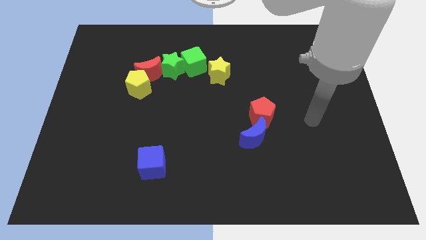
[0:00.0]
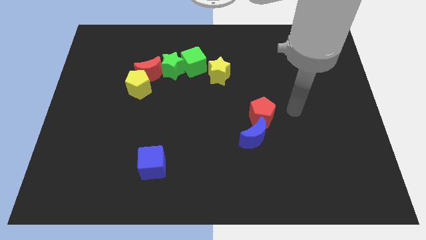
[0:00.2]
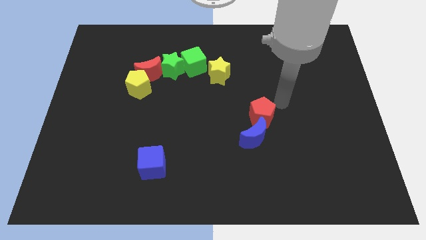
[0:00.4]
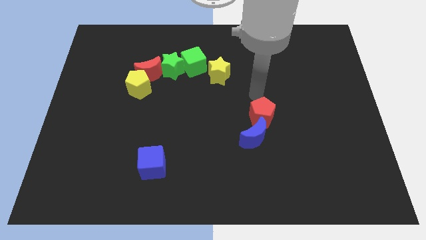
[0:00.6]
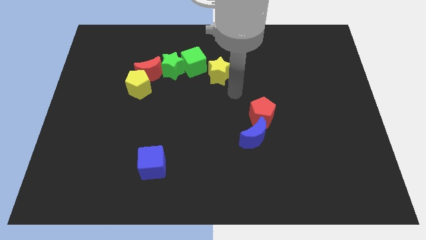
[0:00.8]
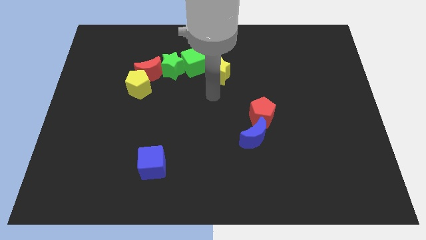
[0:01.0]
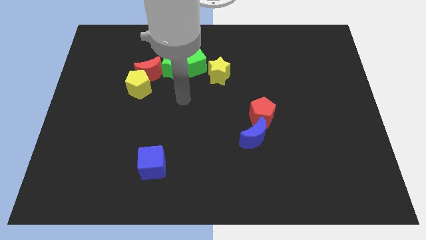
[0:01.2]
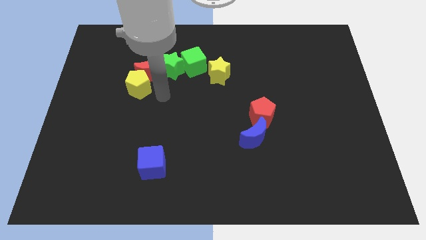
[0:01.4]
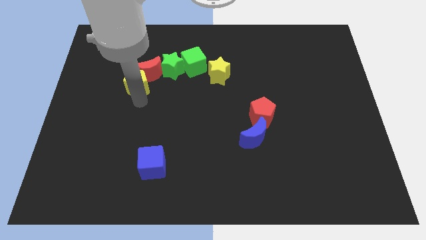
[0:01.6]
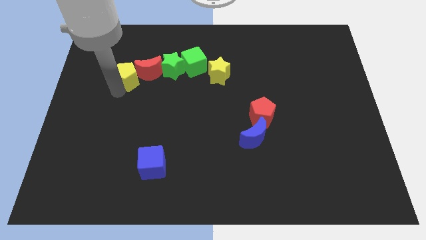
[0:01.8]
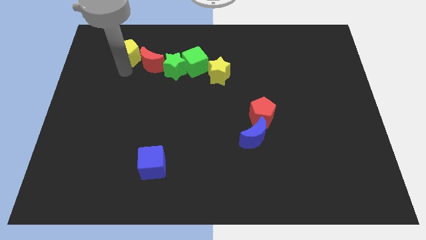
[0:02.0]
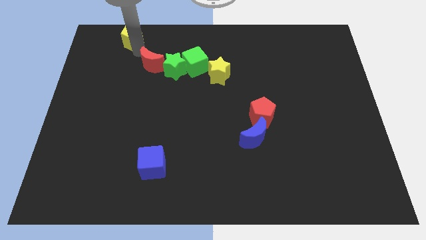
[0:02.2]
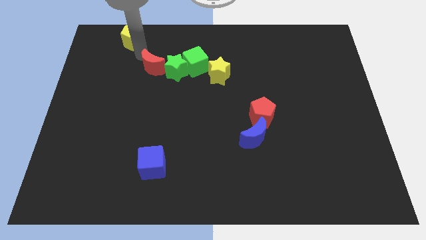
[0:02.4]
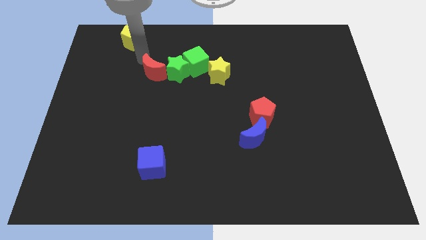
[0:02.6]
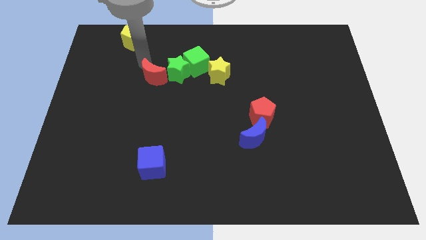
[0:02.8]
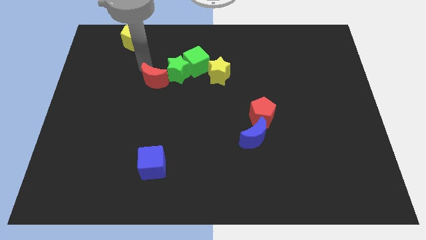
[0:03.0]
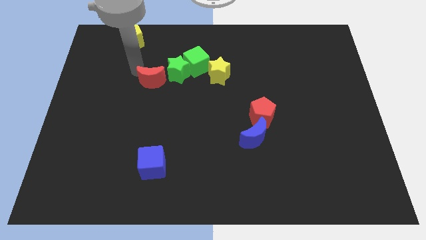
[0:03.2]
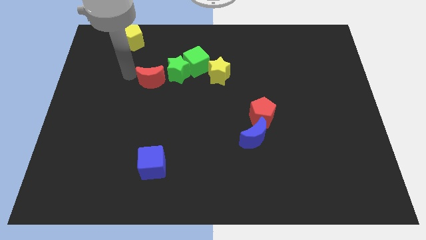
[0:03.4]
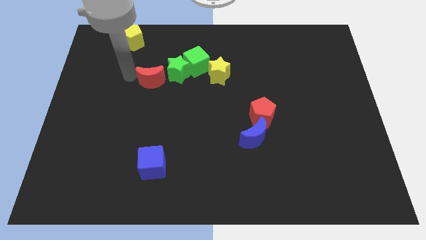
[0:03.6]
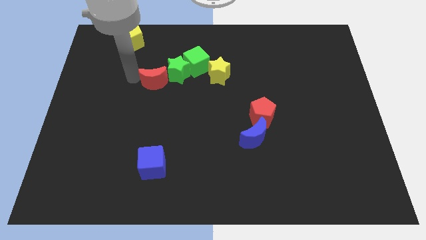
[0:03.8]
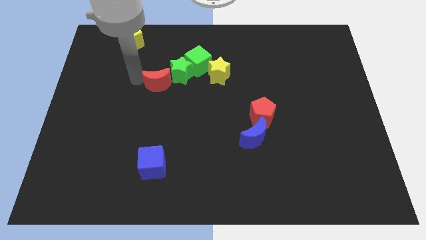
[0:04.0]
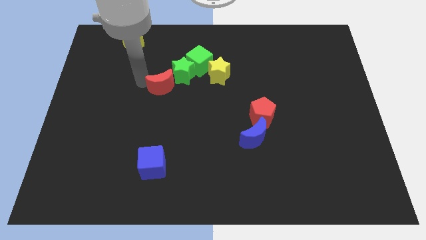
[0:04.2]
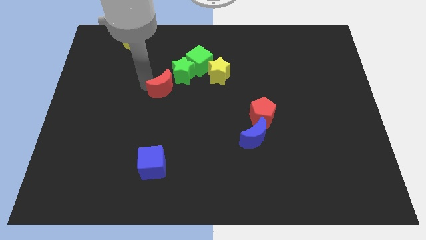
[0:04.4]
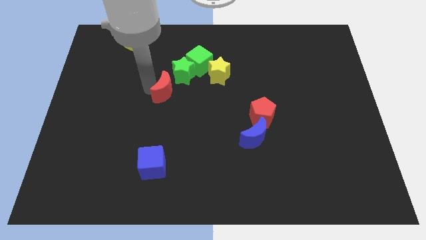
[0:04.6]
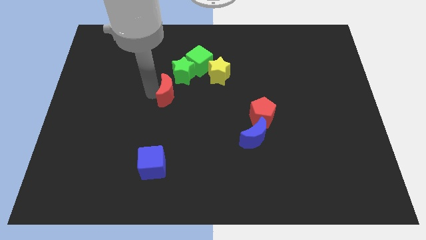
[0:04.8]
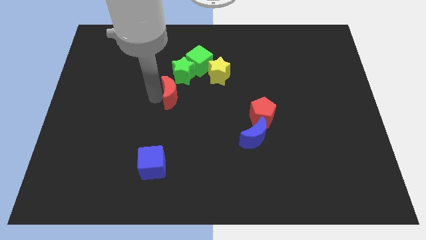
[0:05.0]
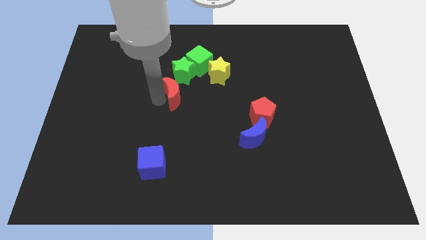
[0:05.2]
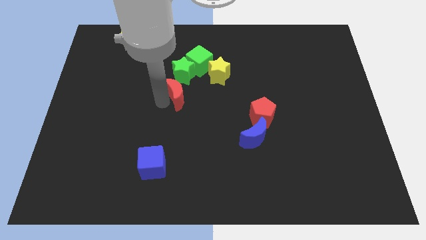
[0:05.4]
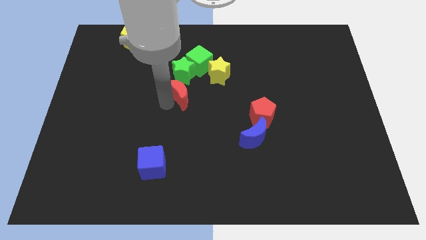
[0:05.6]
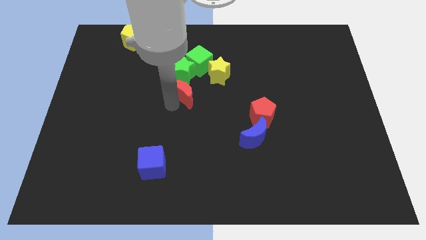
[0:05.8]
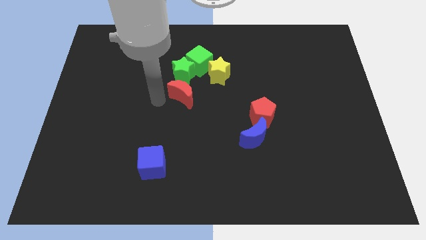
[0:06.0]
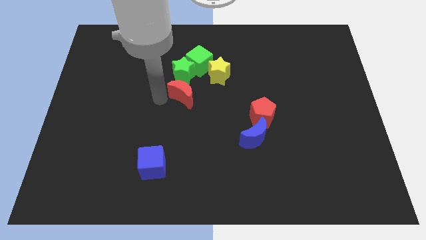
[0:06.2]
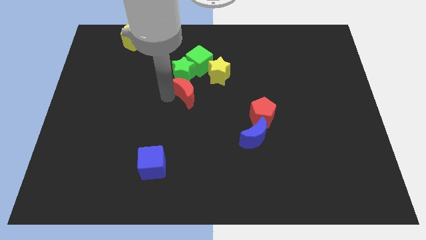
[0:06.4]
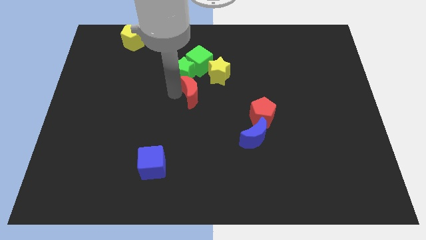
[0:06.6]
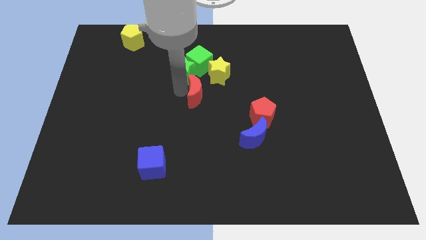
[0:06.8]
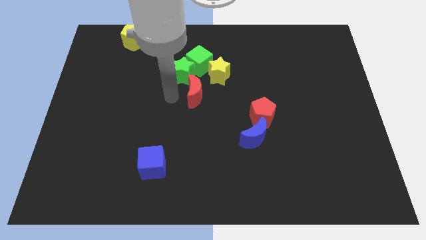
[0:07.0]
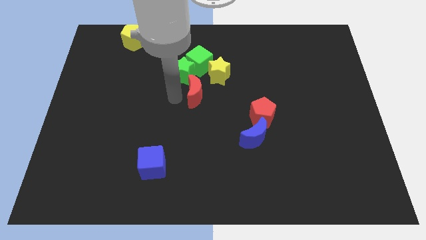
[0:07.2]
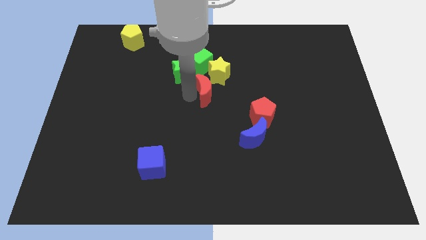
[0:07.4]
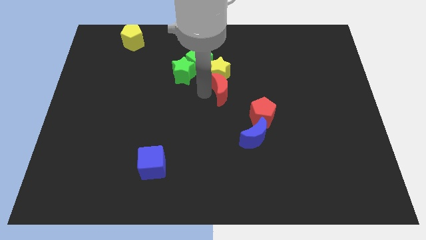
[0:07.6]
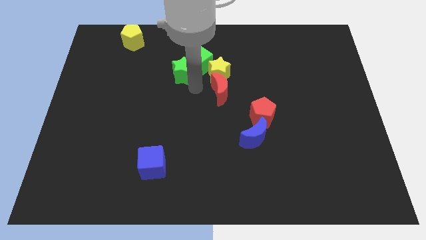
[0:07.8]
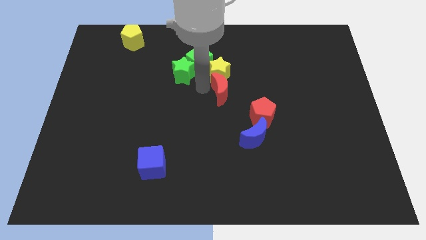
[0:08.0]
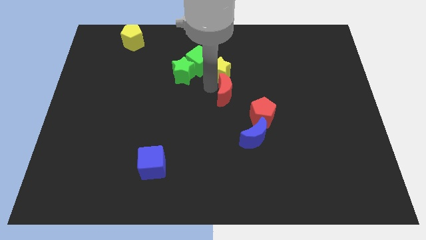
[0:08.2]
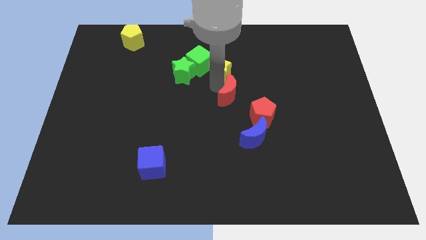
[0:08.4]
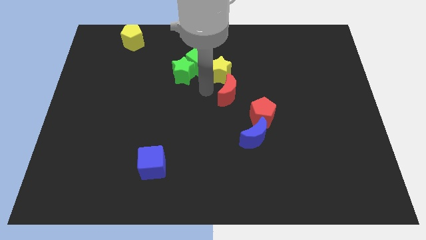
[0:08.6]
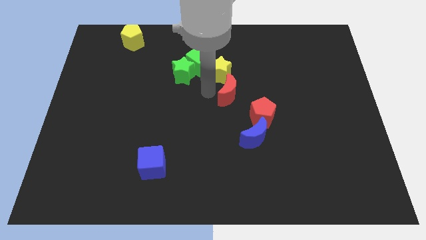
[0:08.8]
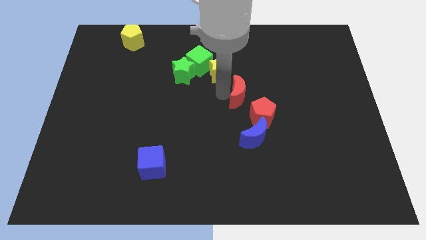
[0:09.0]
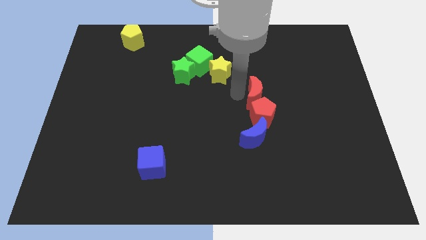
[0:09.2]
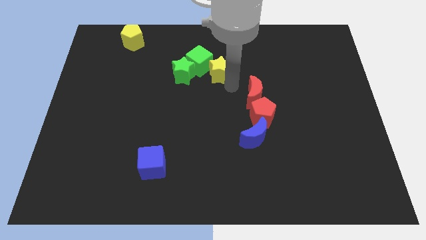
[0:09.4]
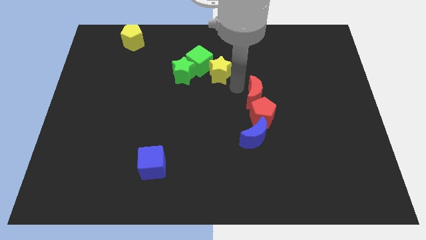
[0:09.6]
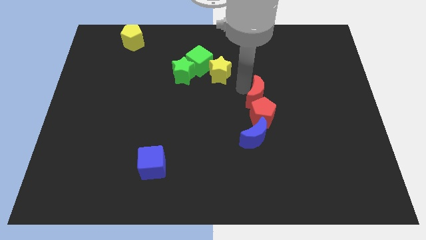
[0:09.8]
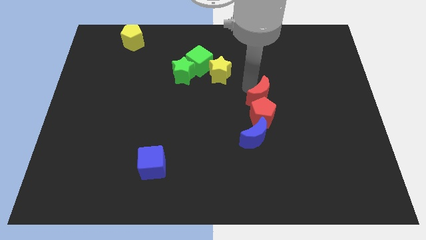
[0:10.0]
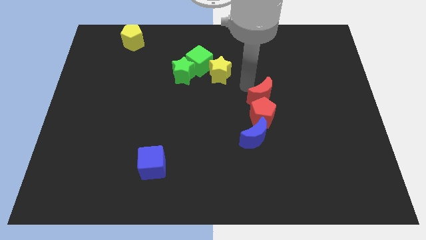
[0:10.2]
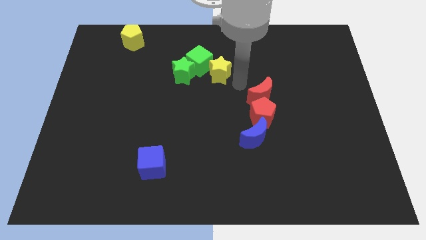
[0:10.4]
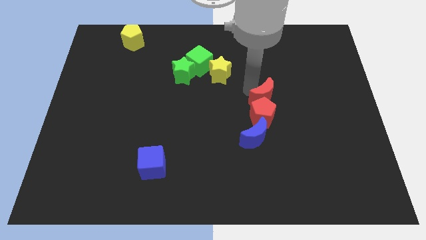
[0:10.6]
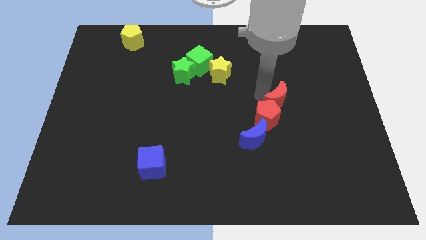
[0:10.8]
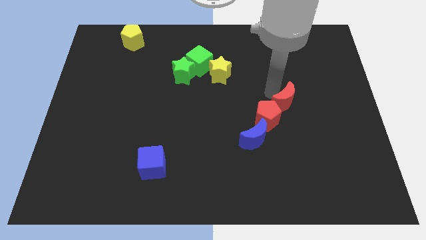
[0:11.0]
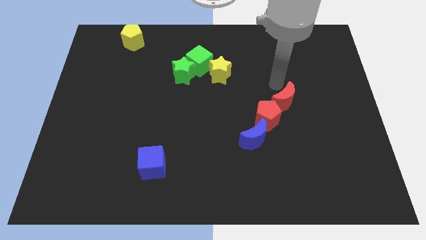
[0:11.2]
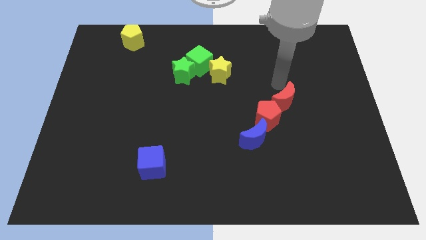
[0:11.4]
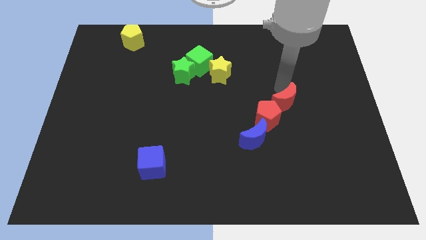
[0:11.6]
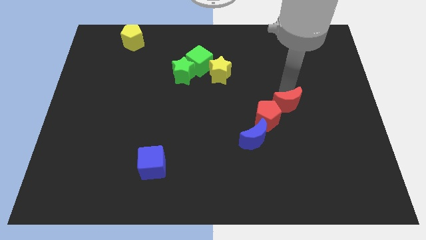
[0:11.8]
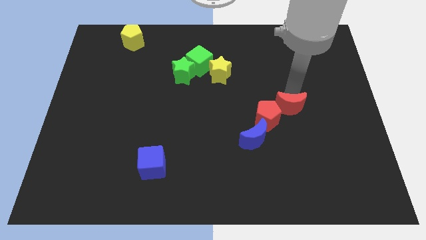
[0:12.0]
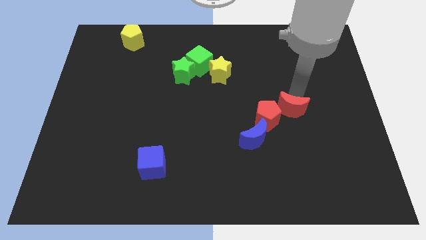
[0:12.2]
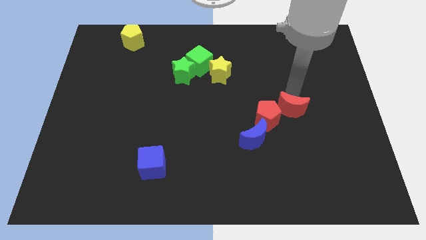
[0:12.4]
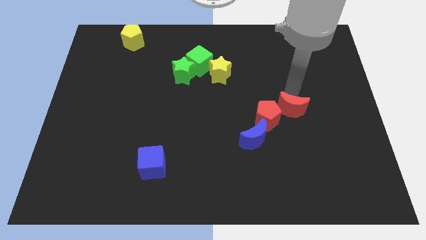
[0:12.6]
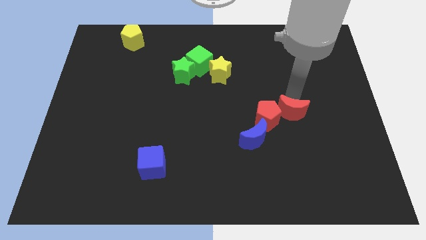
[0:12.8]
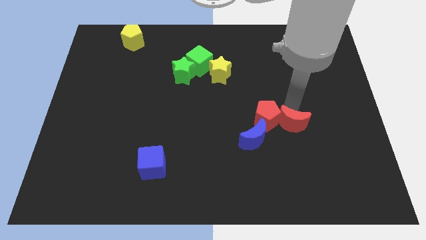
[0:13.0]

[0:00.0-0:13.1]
slide the red moon to the right side of the blue moon

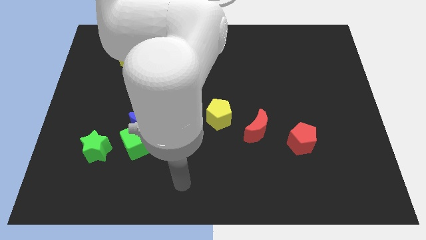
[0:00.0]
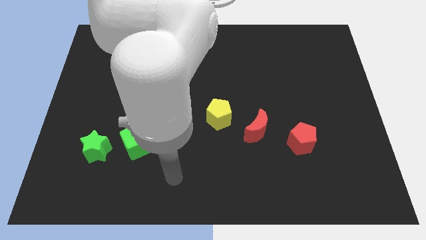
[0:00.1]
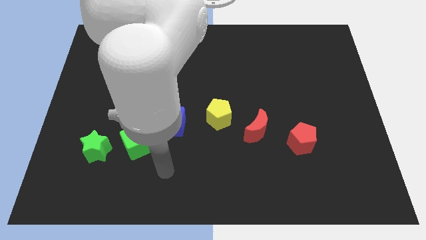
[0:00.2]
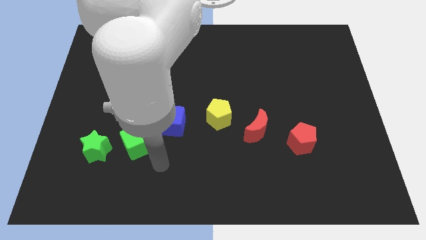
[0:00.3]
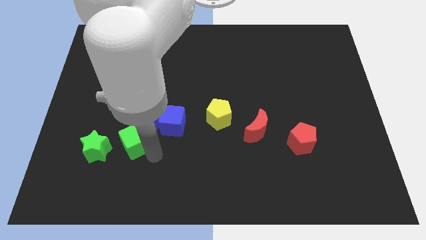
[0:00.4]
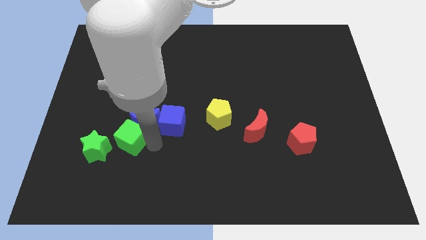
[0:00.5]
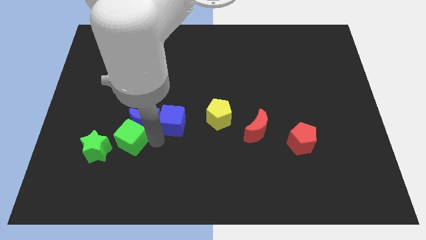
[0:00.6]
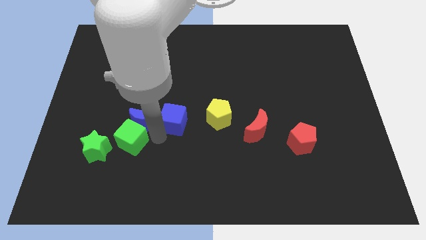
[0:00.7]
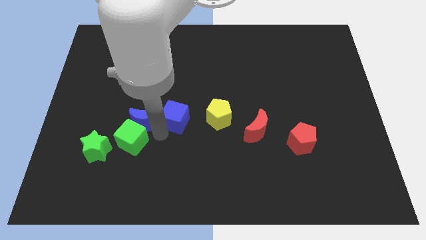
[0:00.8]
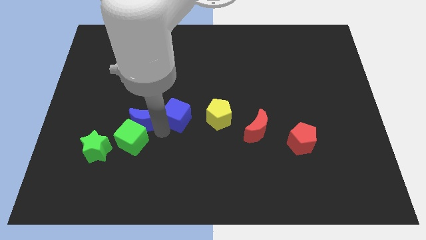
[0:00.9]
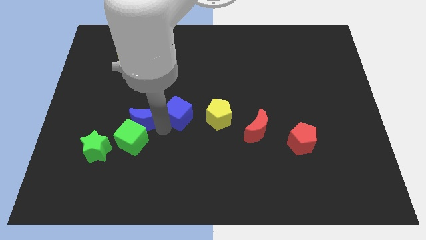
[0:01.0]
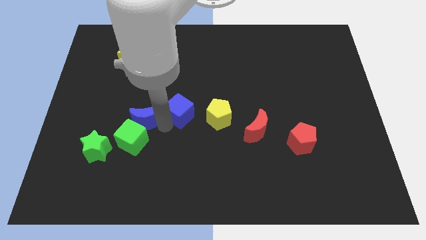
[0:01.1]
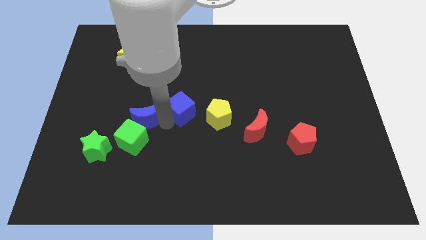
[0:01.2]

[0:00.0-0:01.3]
move the blue cube to the top left of the yellow pentagon
